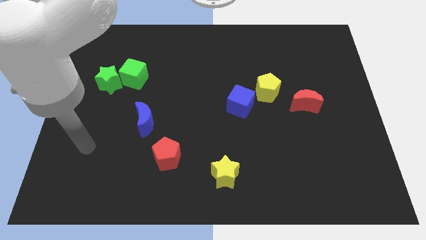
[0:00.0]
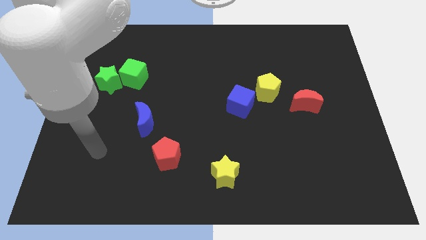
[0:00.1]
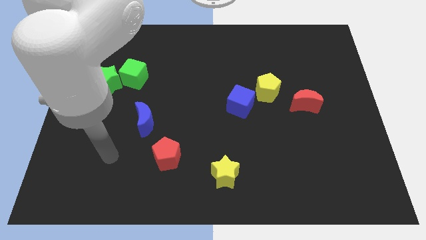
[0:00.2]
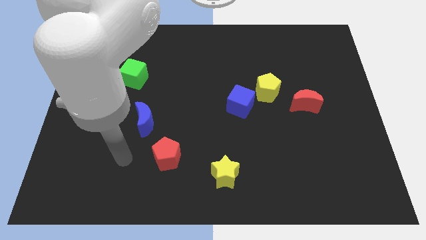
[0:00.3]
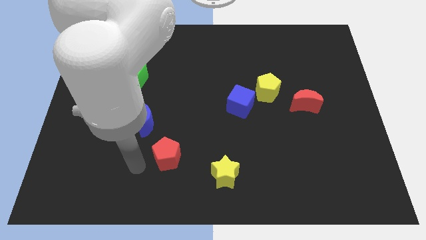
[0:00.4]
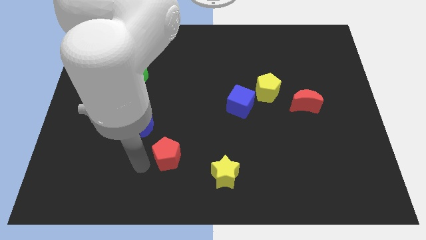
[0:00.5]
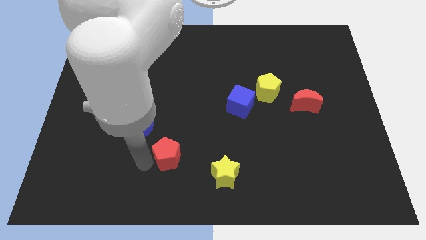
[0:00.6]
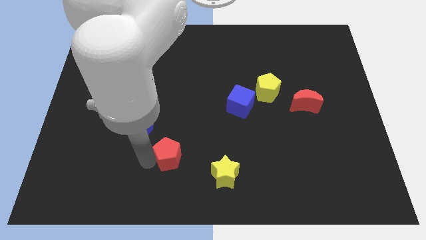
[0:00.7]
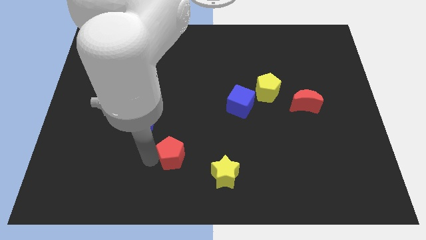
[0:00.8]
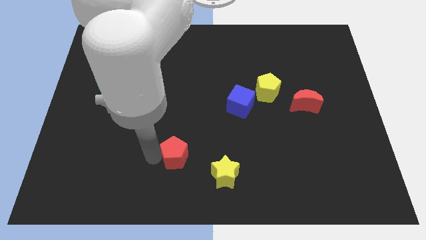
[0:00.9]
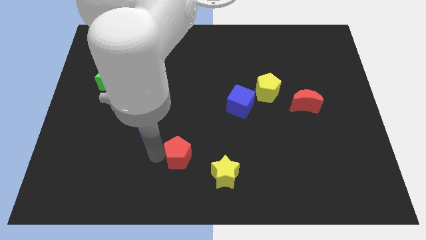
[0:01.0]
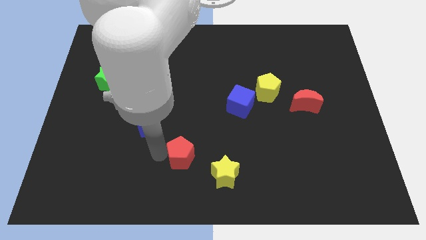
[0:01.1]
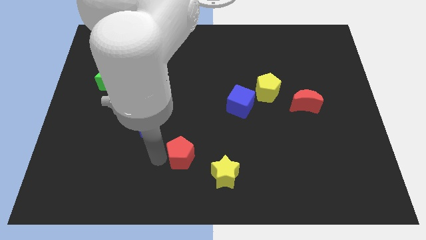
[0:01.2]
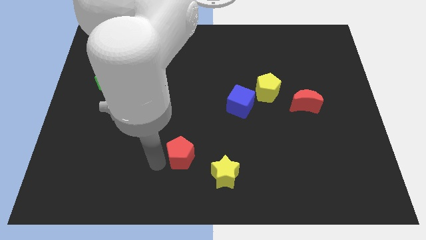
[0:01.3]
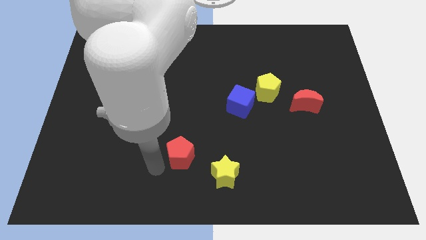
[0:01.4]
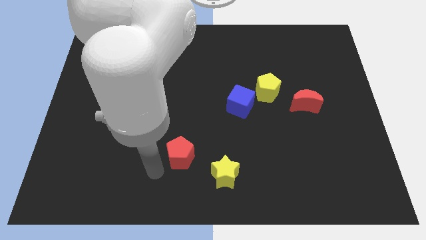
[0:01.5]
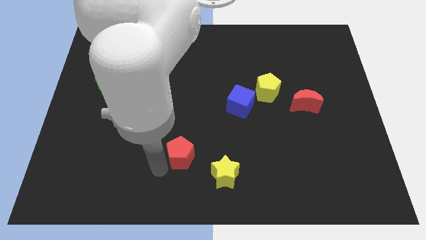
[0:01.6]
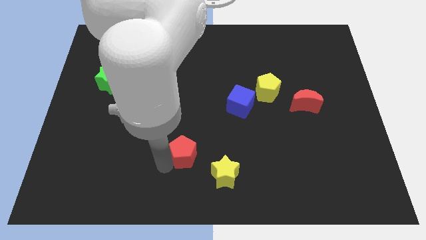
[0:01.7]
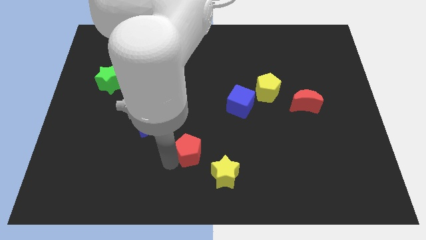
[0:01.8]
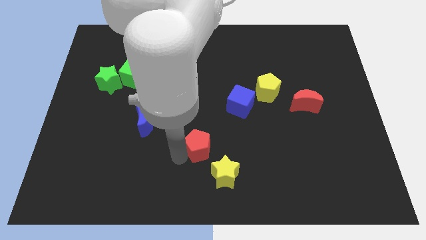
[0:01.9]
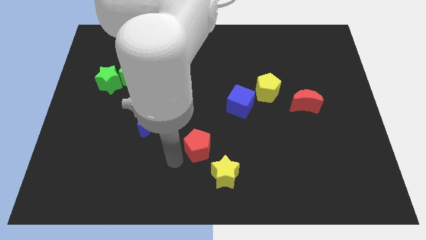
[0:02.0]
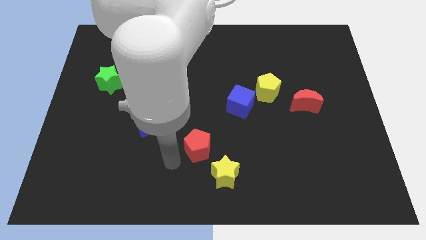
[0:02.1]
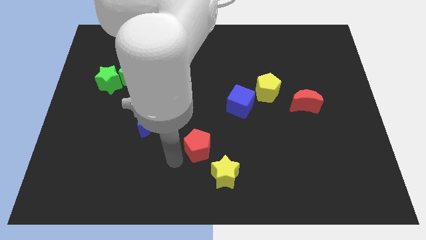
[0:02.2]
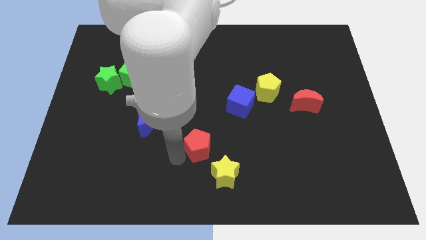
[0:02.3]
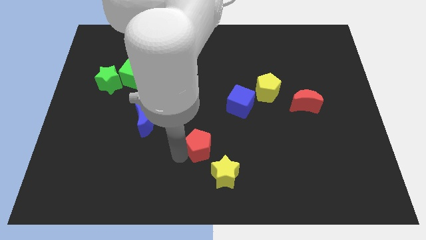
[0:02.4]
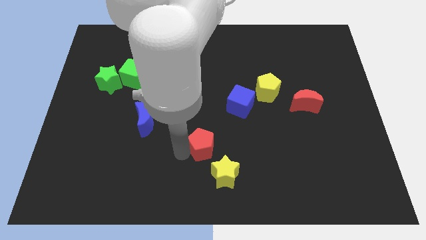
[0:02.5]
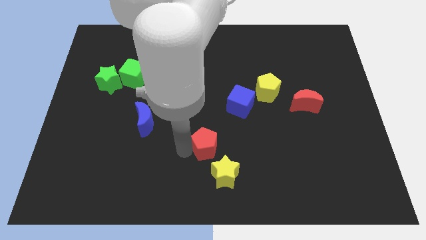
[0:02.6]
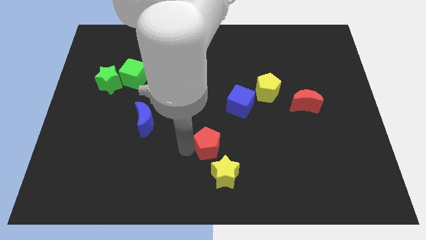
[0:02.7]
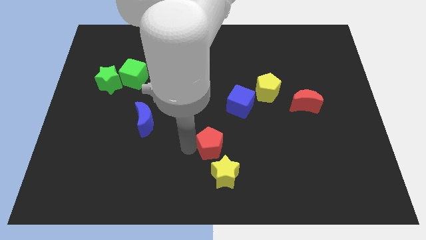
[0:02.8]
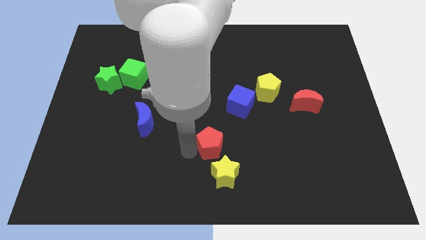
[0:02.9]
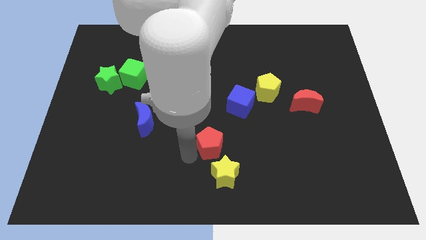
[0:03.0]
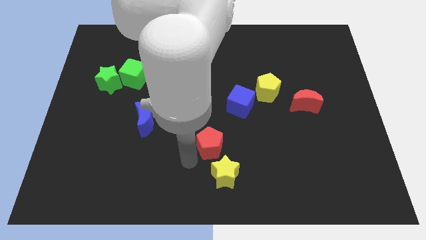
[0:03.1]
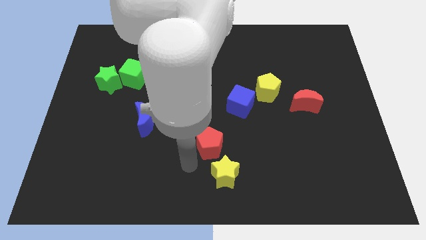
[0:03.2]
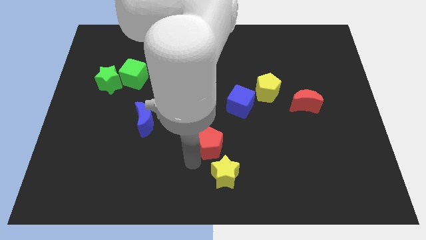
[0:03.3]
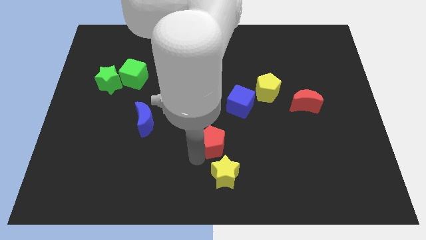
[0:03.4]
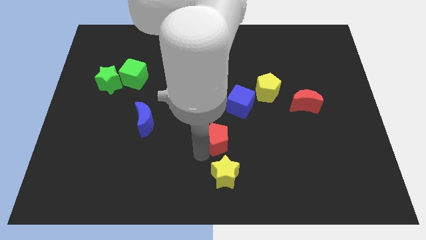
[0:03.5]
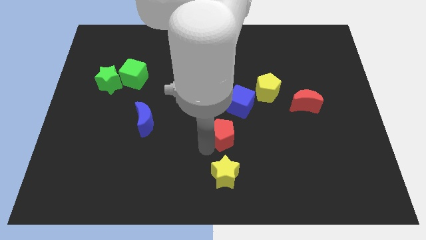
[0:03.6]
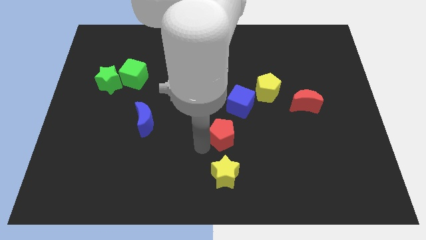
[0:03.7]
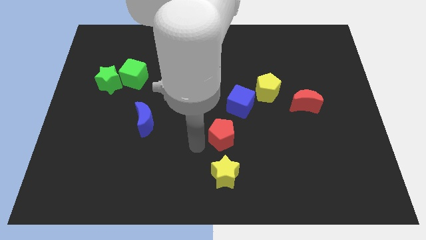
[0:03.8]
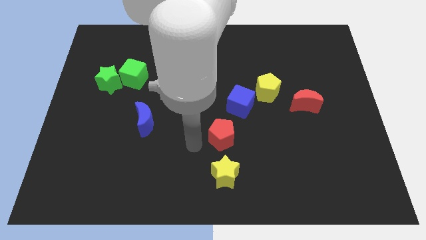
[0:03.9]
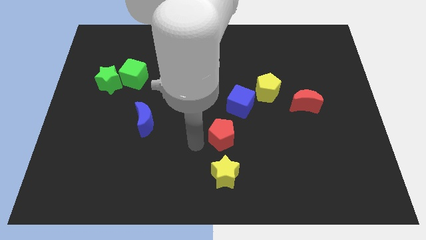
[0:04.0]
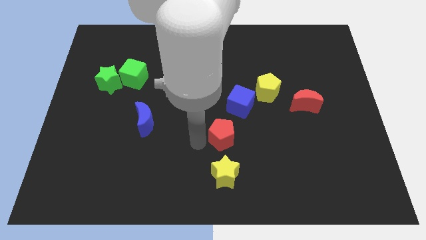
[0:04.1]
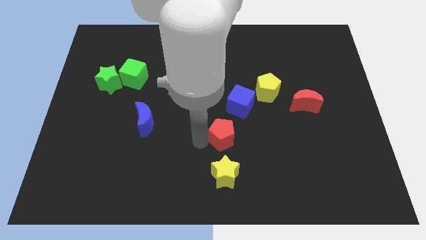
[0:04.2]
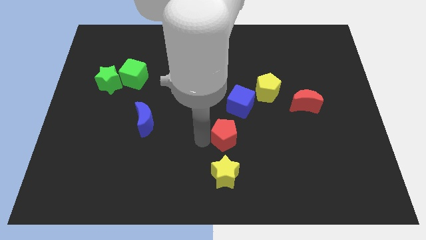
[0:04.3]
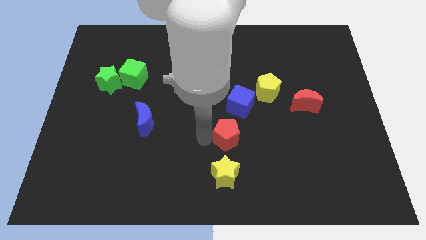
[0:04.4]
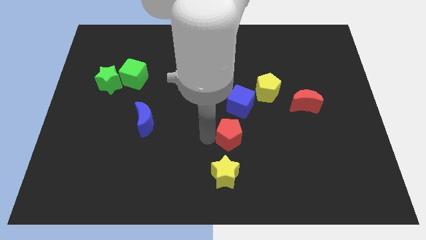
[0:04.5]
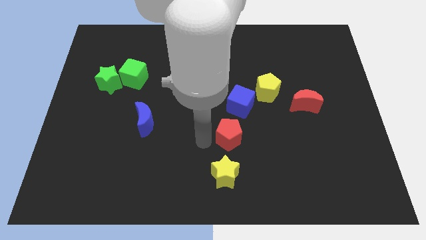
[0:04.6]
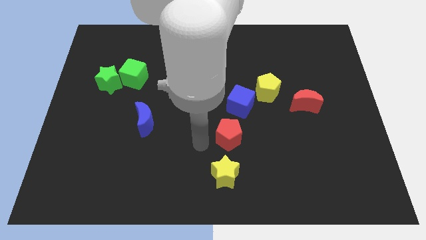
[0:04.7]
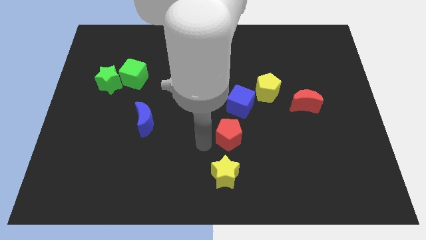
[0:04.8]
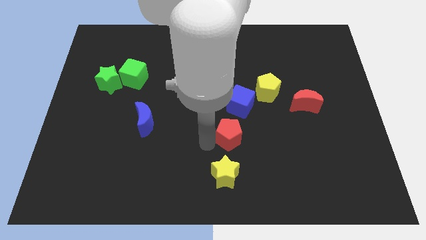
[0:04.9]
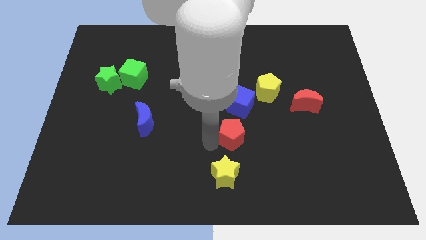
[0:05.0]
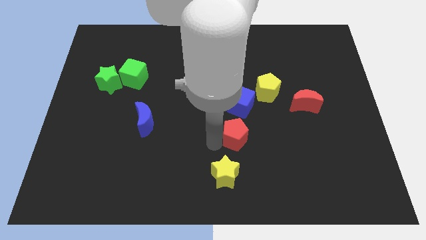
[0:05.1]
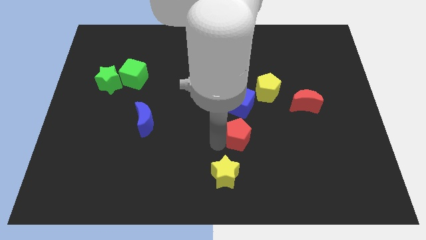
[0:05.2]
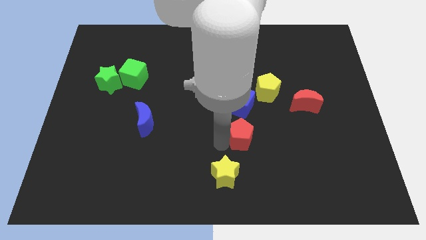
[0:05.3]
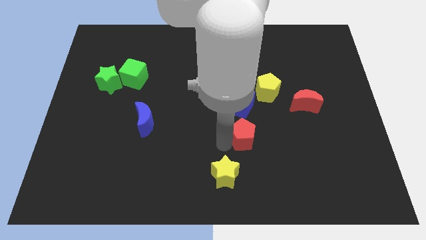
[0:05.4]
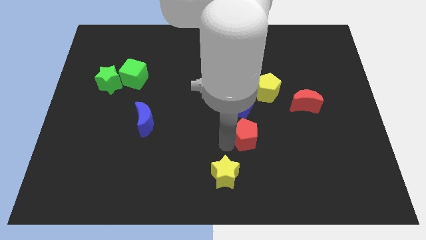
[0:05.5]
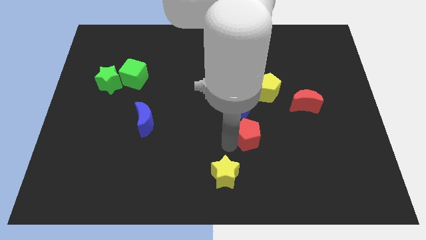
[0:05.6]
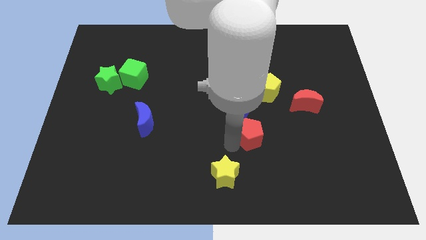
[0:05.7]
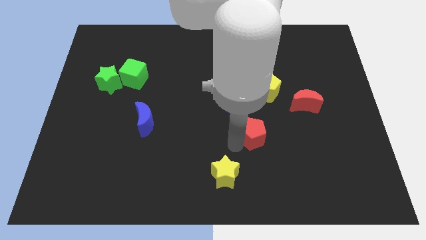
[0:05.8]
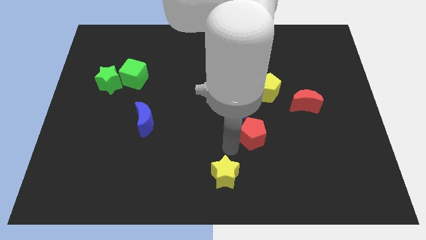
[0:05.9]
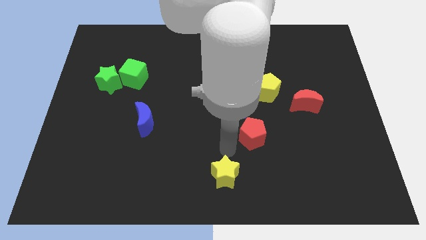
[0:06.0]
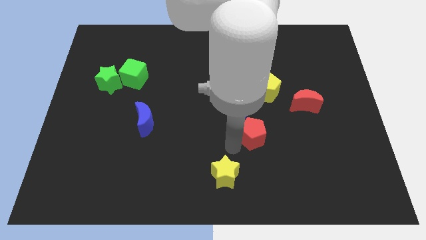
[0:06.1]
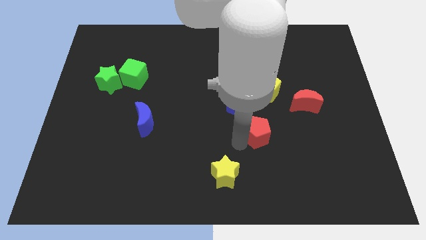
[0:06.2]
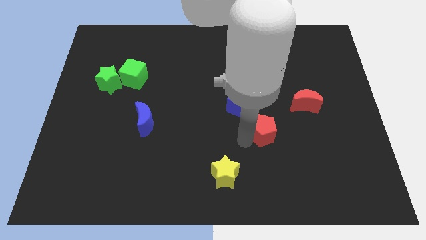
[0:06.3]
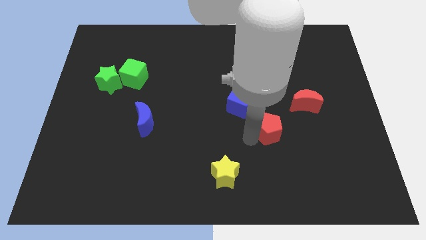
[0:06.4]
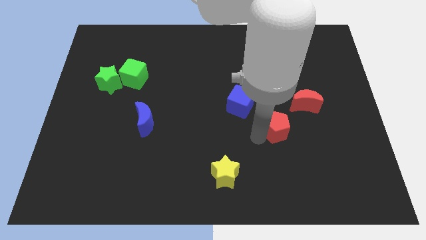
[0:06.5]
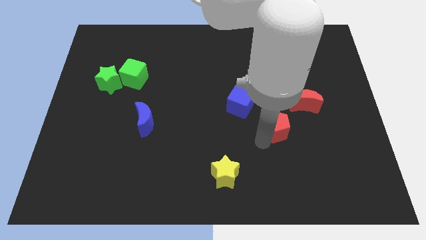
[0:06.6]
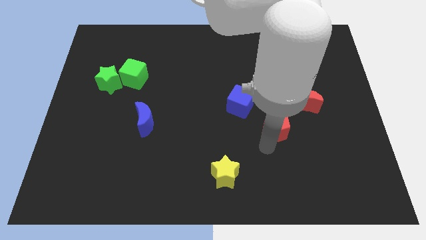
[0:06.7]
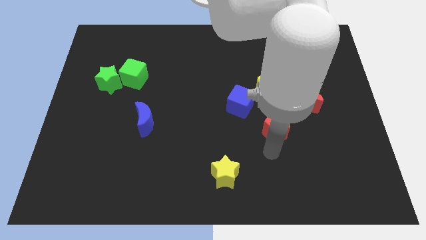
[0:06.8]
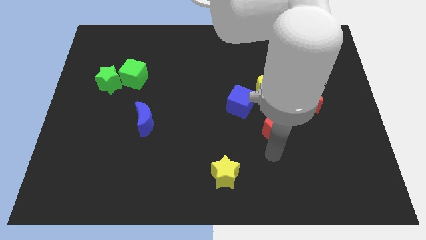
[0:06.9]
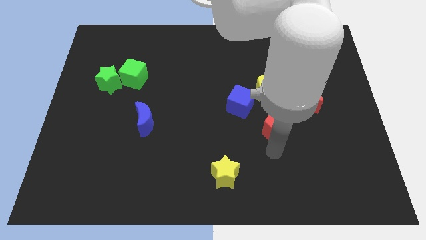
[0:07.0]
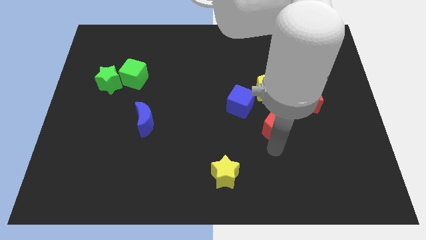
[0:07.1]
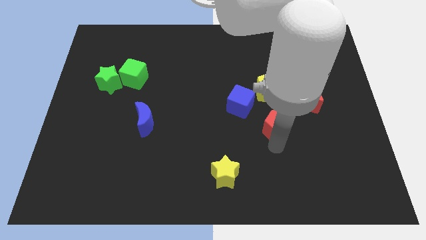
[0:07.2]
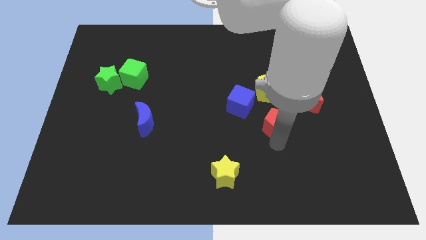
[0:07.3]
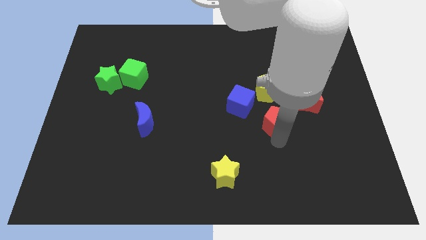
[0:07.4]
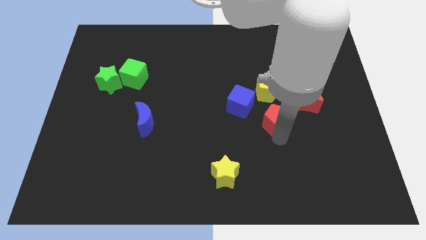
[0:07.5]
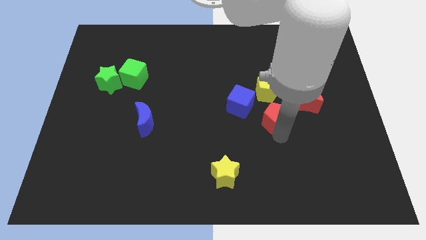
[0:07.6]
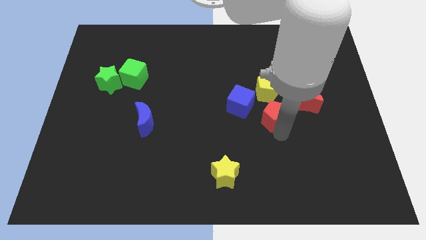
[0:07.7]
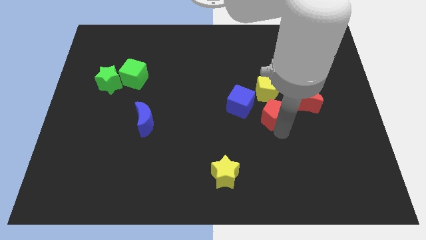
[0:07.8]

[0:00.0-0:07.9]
push the red pentagon upwards and right diagonally
